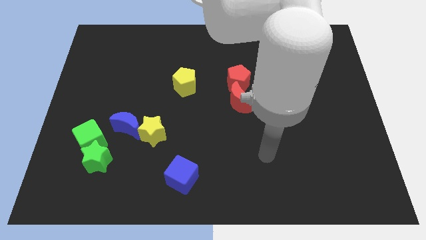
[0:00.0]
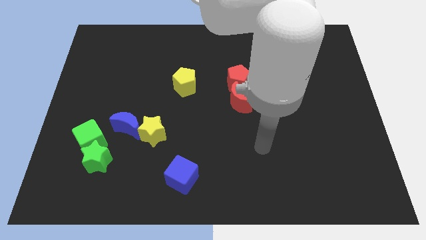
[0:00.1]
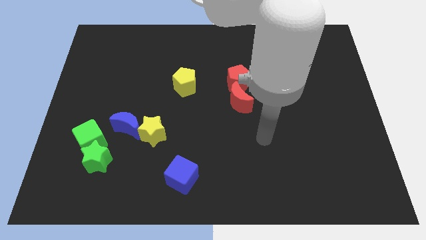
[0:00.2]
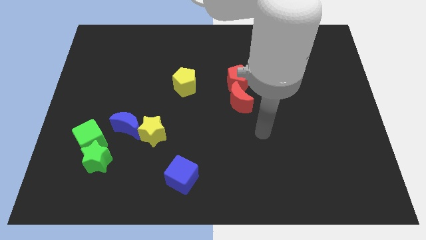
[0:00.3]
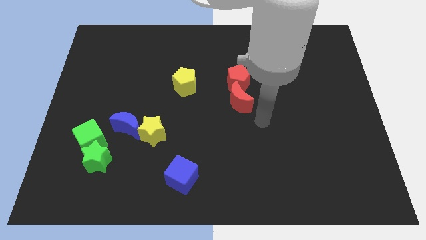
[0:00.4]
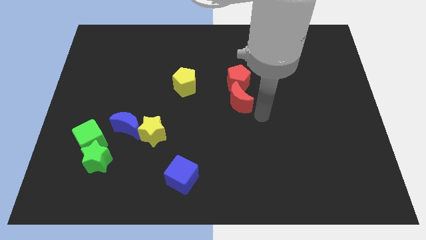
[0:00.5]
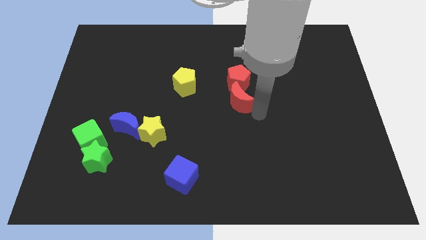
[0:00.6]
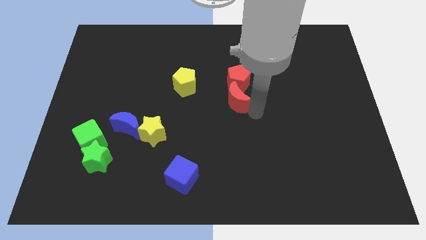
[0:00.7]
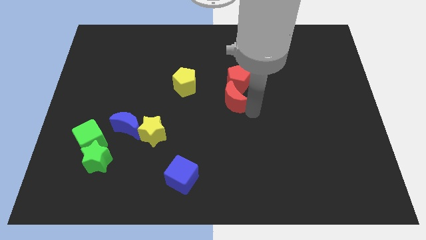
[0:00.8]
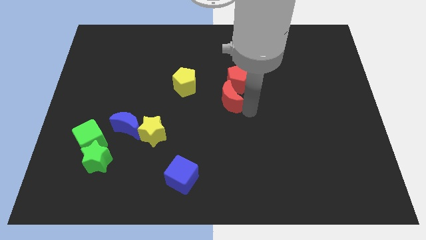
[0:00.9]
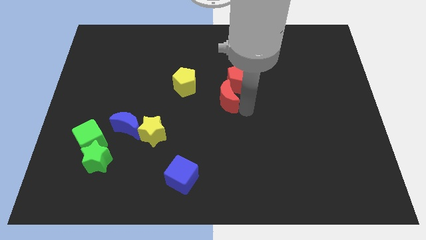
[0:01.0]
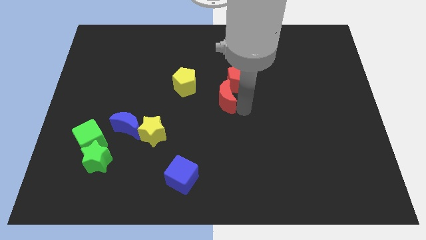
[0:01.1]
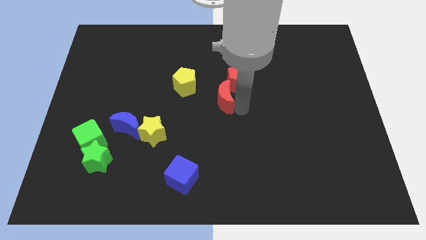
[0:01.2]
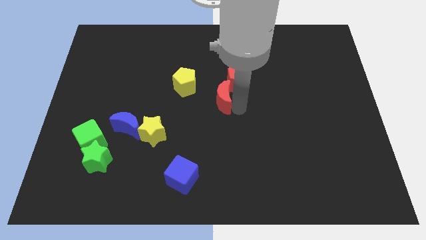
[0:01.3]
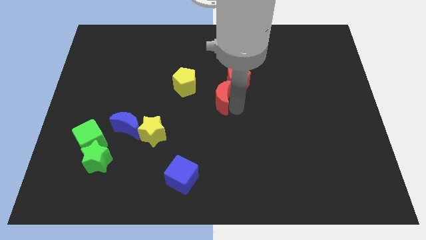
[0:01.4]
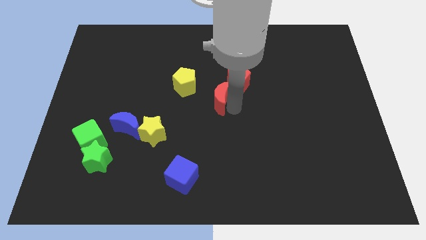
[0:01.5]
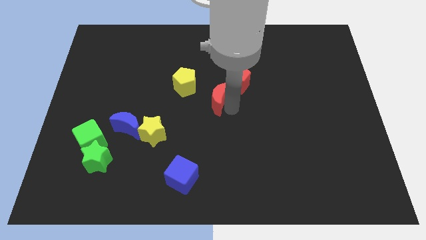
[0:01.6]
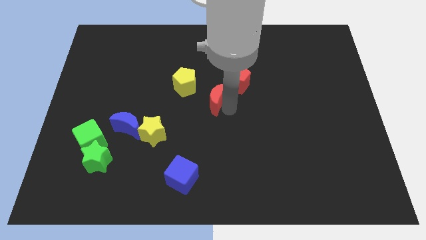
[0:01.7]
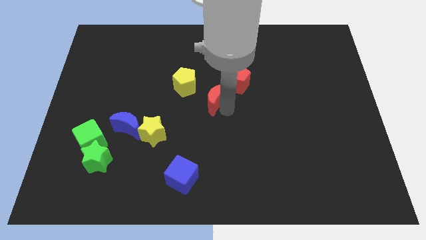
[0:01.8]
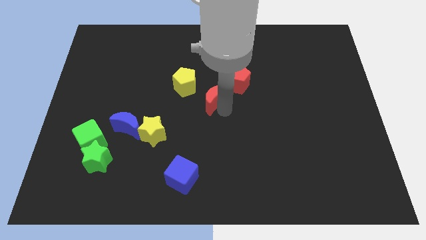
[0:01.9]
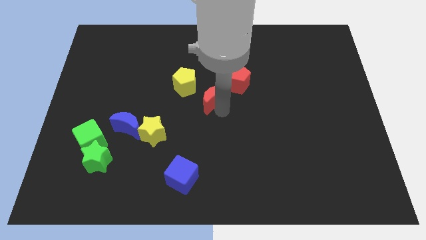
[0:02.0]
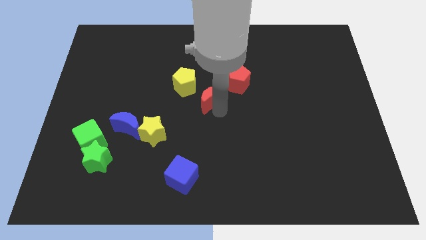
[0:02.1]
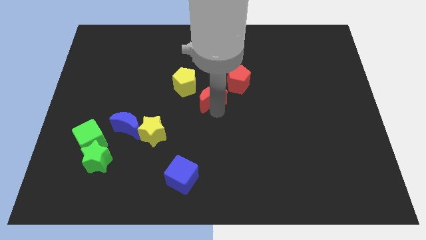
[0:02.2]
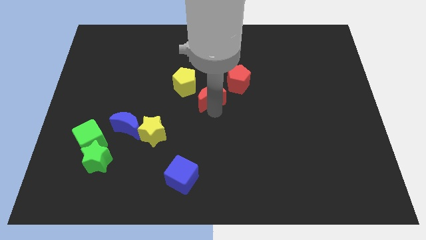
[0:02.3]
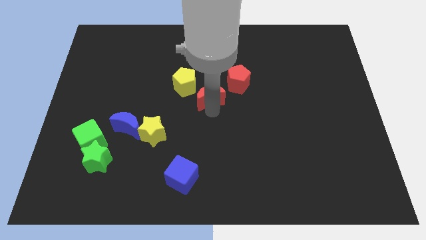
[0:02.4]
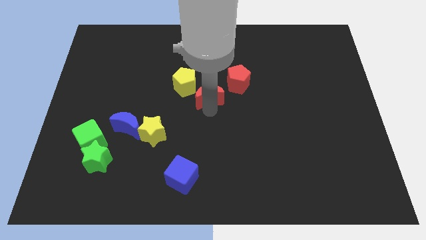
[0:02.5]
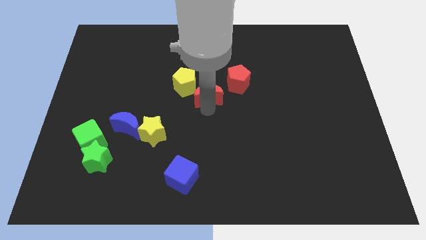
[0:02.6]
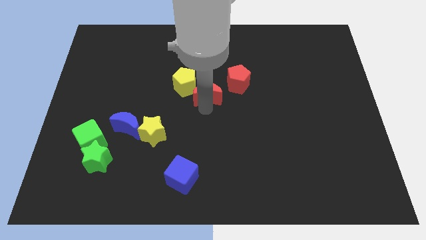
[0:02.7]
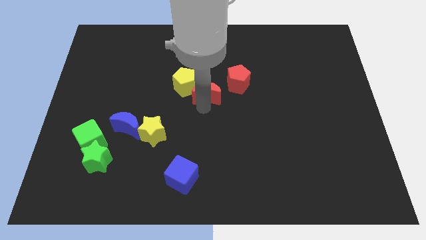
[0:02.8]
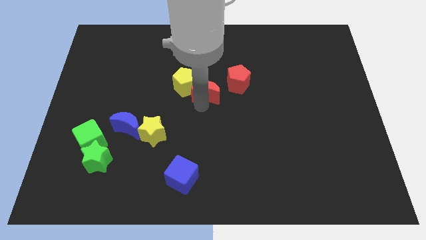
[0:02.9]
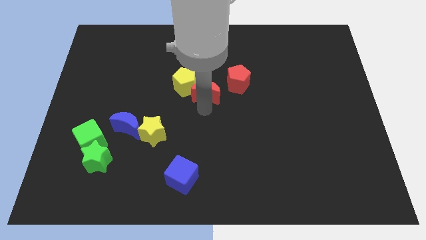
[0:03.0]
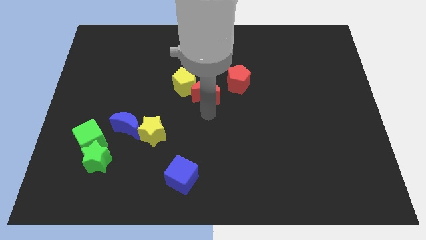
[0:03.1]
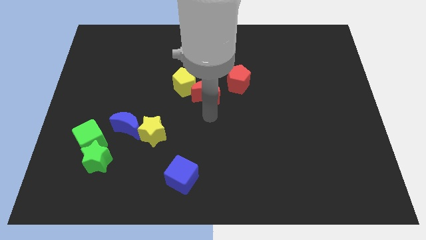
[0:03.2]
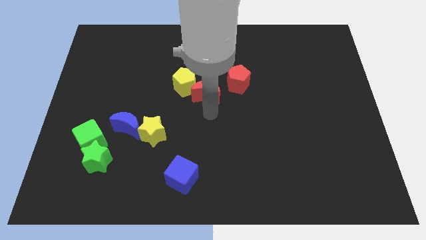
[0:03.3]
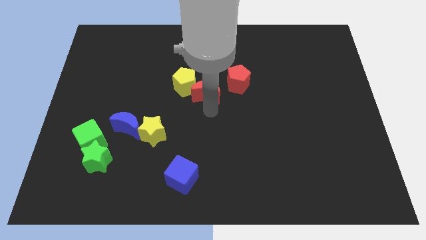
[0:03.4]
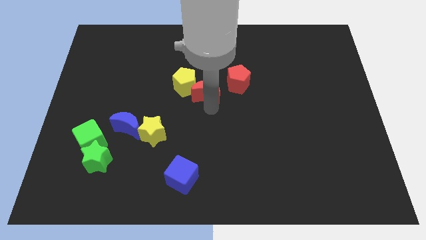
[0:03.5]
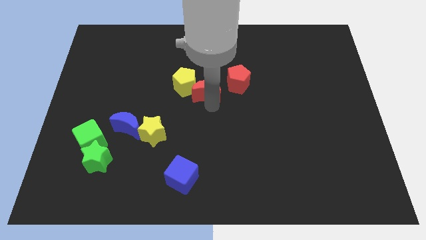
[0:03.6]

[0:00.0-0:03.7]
push the red moon up and left a bit

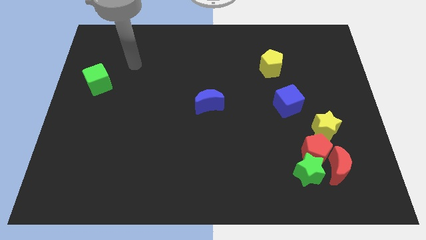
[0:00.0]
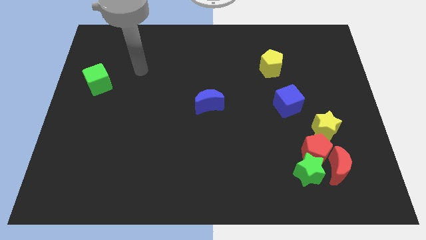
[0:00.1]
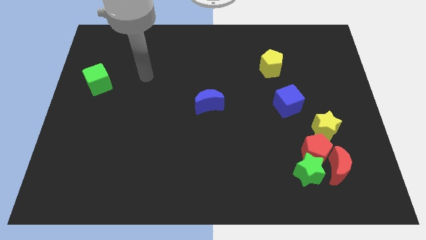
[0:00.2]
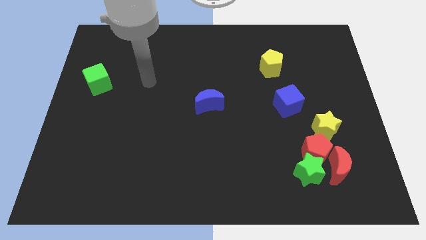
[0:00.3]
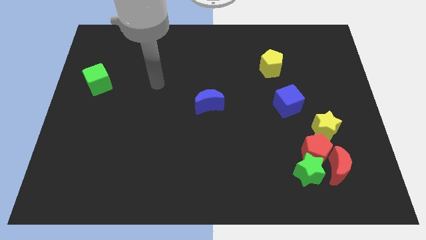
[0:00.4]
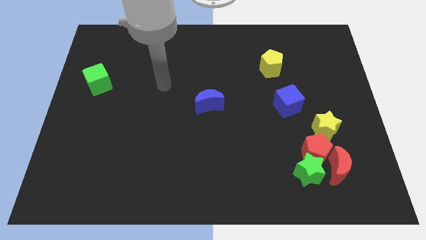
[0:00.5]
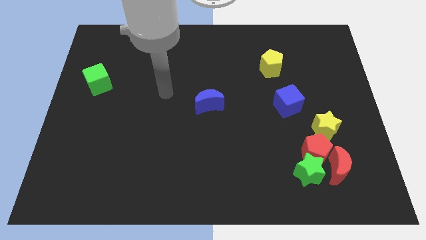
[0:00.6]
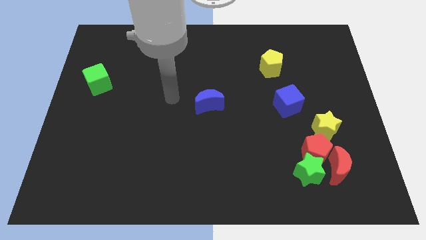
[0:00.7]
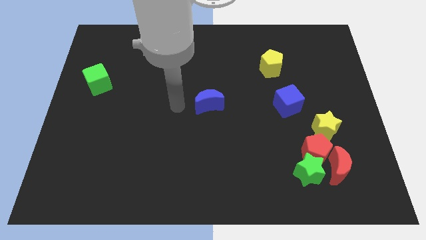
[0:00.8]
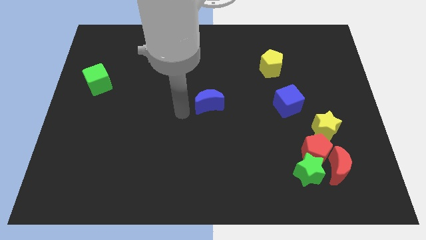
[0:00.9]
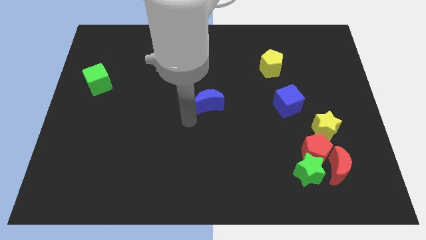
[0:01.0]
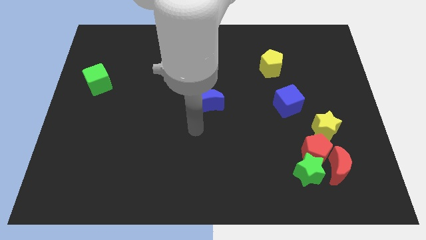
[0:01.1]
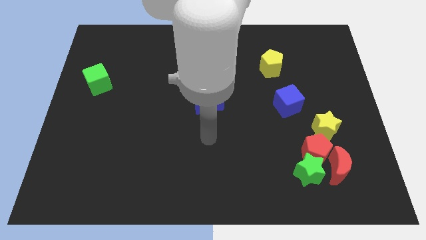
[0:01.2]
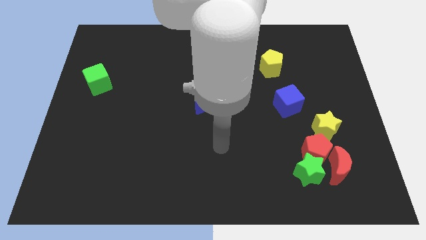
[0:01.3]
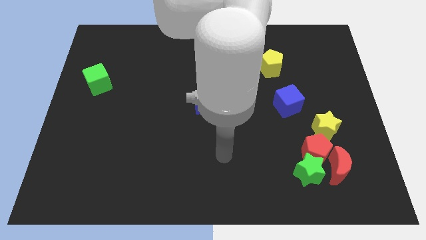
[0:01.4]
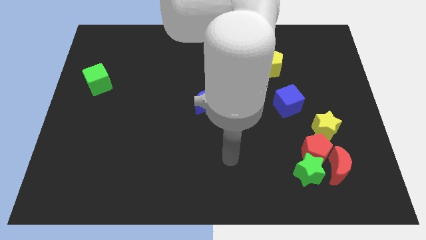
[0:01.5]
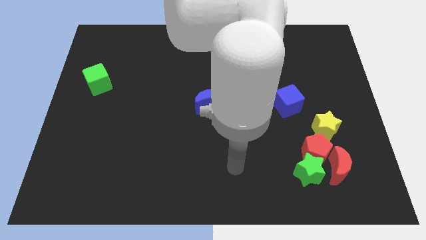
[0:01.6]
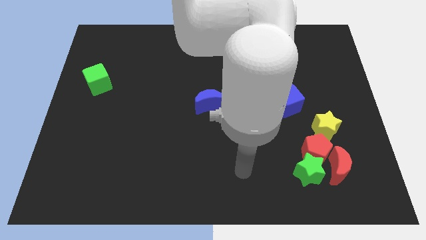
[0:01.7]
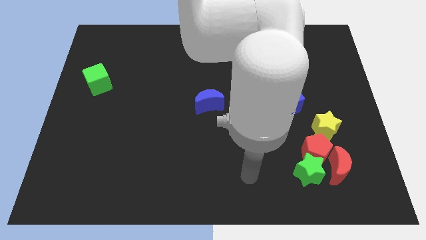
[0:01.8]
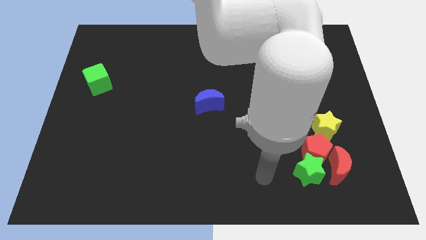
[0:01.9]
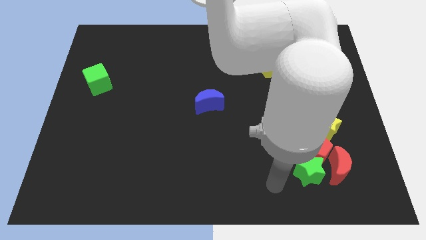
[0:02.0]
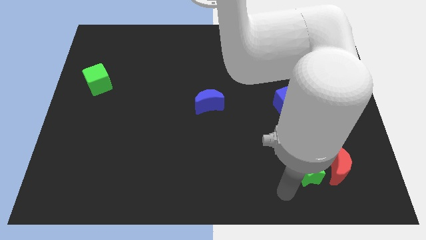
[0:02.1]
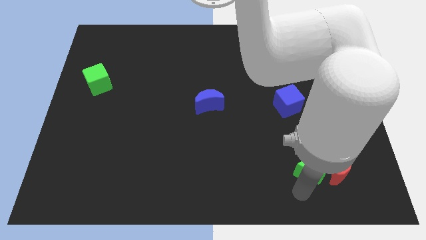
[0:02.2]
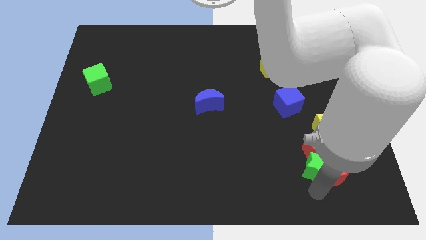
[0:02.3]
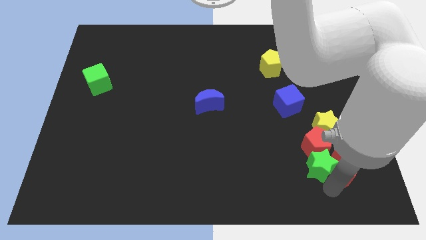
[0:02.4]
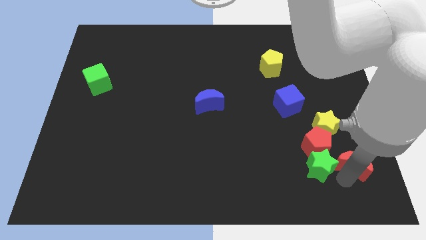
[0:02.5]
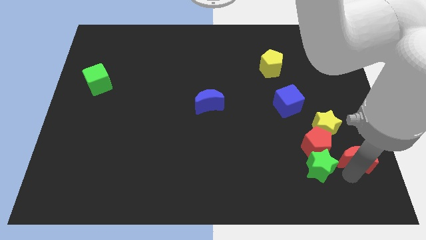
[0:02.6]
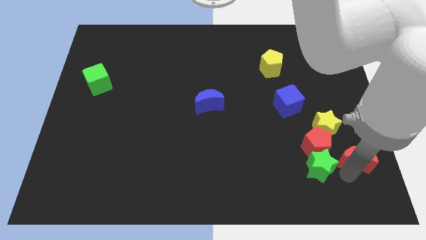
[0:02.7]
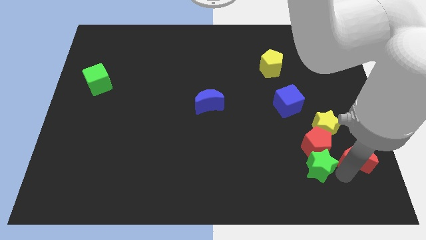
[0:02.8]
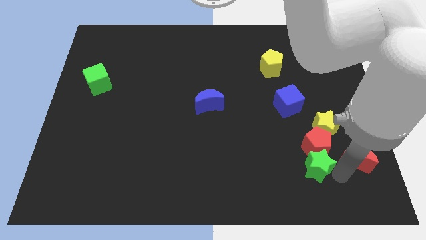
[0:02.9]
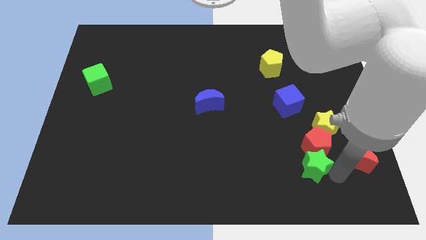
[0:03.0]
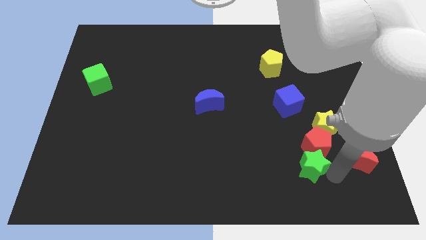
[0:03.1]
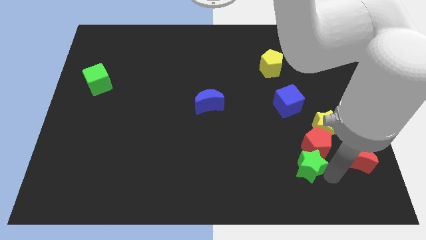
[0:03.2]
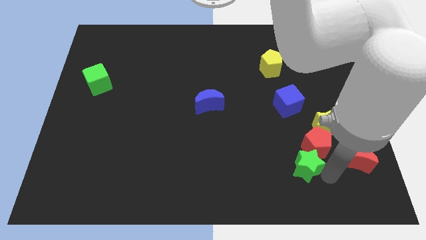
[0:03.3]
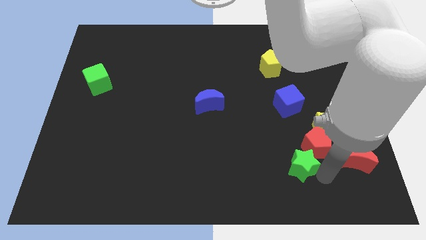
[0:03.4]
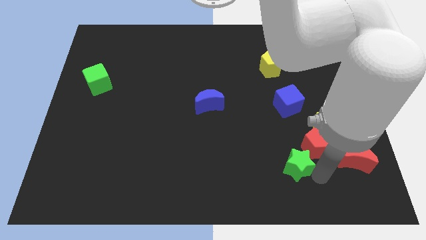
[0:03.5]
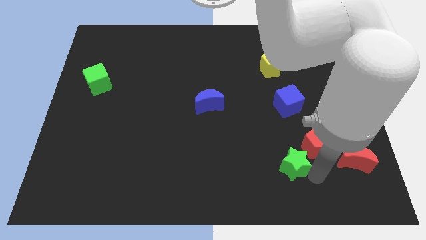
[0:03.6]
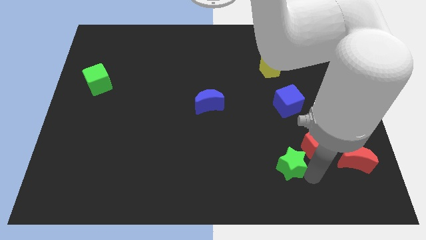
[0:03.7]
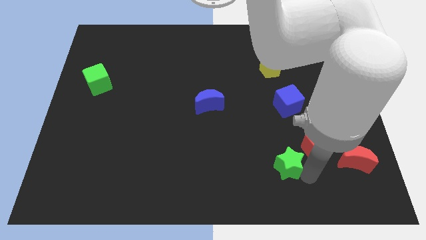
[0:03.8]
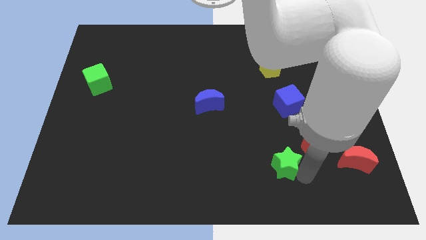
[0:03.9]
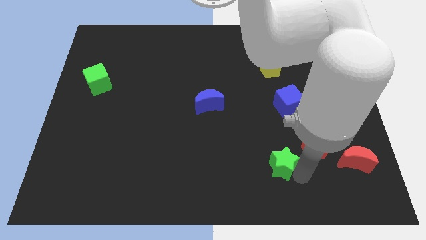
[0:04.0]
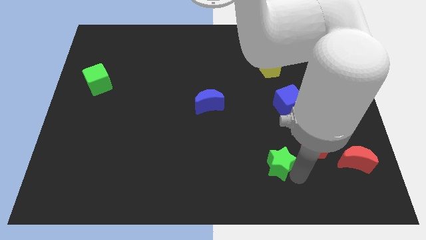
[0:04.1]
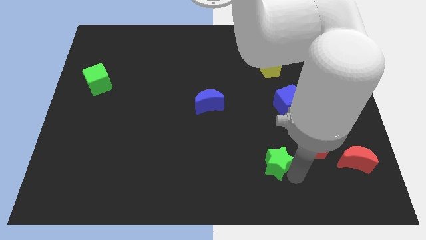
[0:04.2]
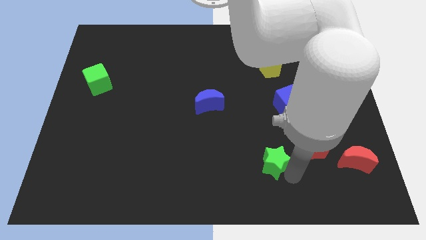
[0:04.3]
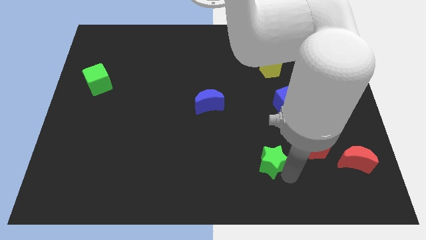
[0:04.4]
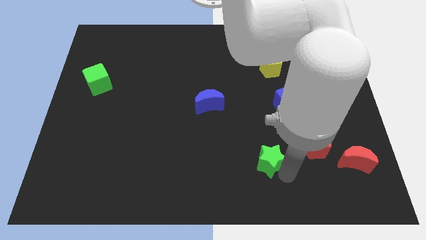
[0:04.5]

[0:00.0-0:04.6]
push the green star a little bit upwards and to the left diagonally

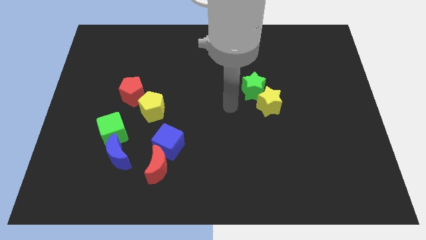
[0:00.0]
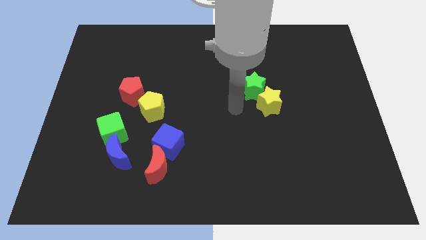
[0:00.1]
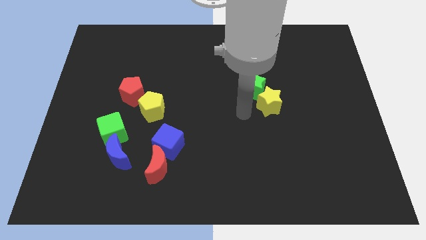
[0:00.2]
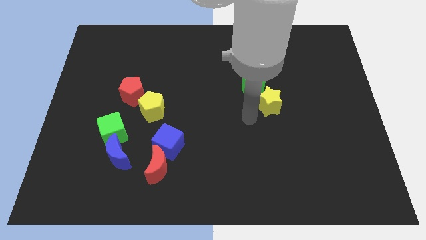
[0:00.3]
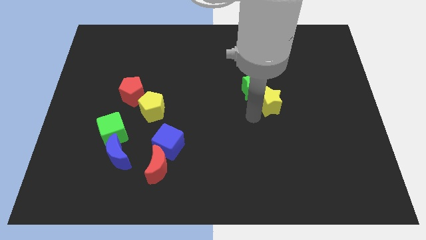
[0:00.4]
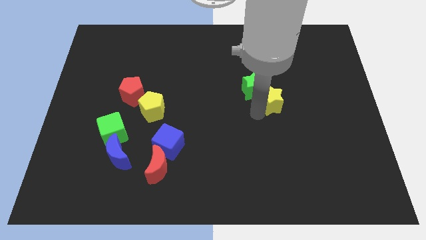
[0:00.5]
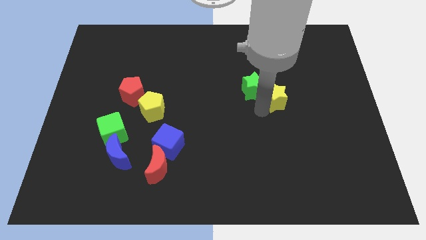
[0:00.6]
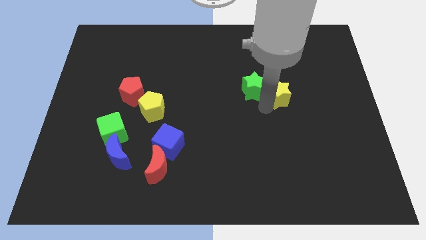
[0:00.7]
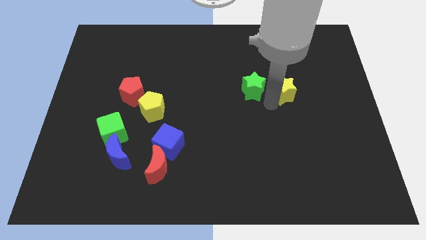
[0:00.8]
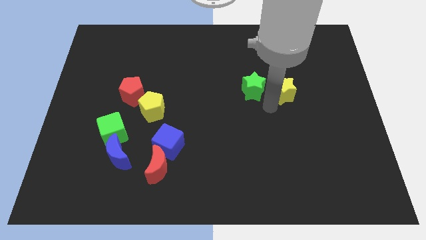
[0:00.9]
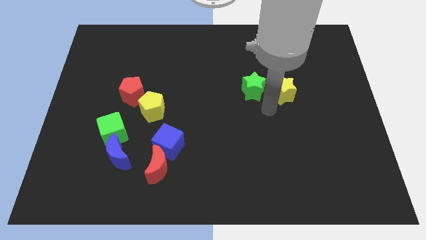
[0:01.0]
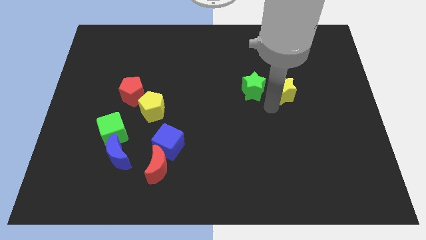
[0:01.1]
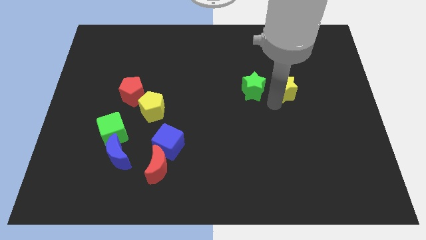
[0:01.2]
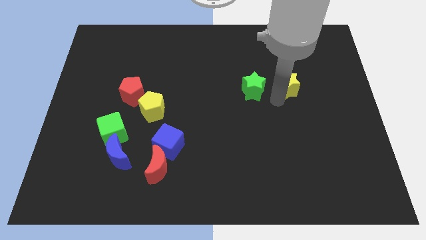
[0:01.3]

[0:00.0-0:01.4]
slightly move the yellow star up and right diagonally
